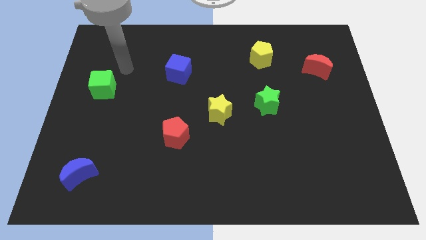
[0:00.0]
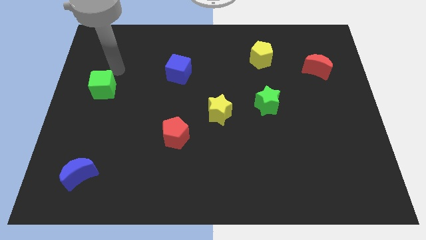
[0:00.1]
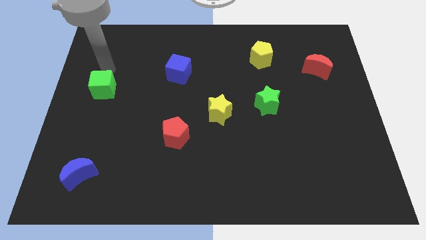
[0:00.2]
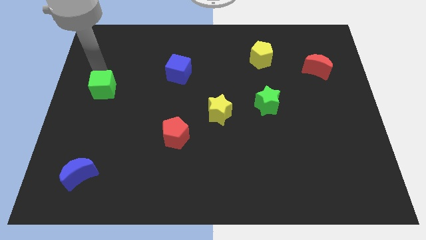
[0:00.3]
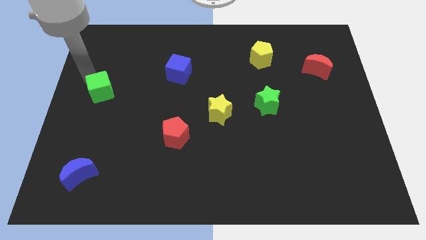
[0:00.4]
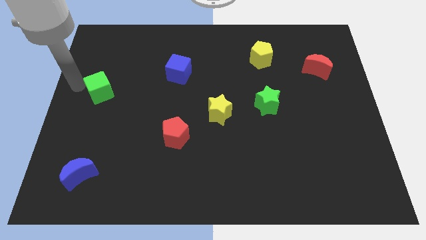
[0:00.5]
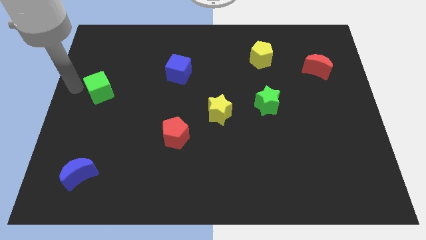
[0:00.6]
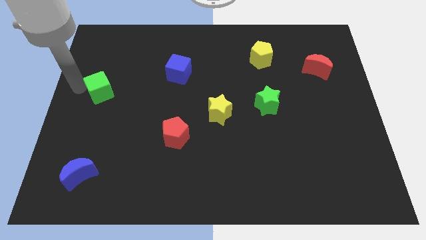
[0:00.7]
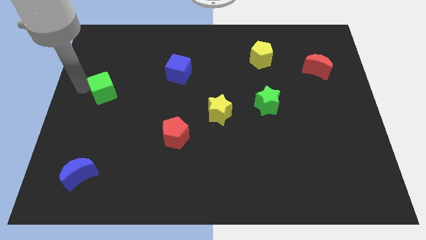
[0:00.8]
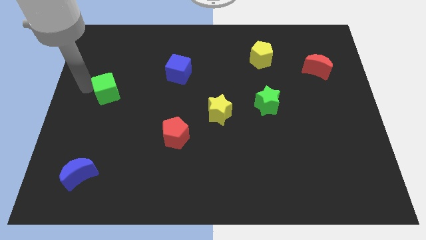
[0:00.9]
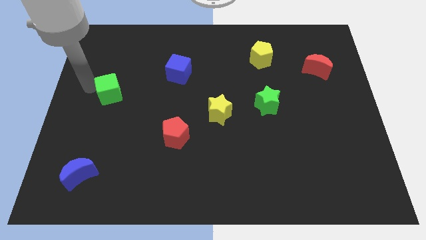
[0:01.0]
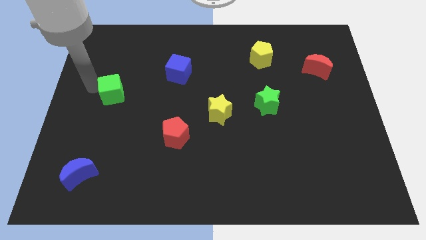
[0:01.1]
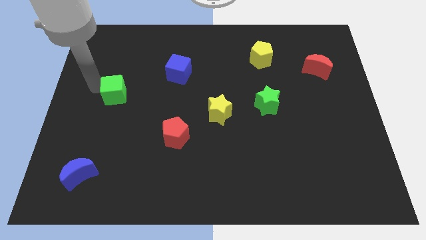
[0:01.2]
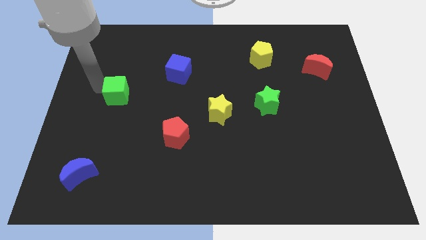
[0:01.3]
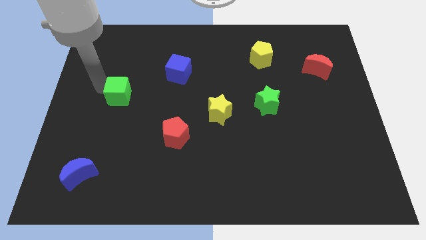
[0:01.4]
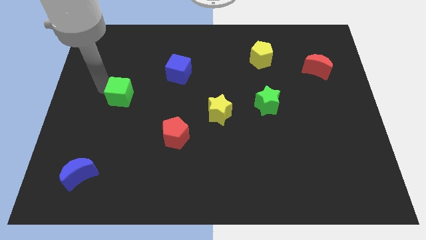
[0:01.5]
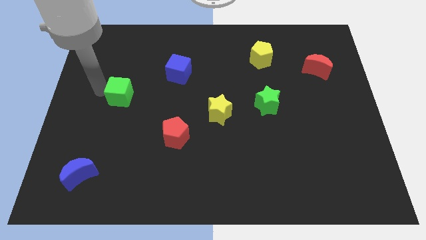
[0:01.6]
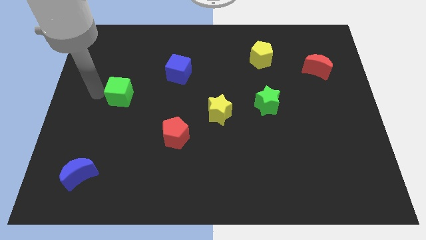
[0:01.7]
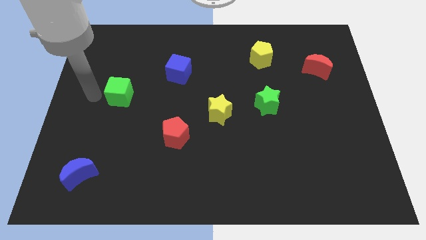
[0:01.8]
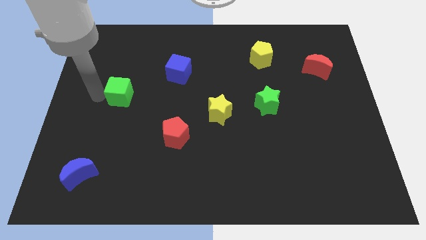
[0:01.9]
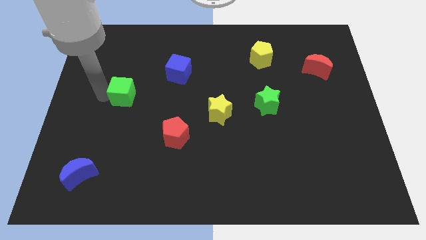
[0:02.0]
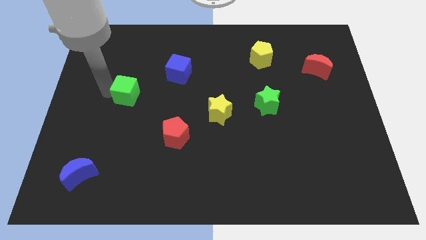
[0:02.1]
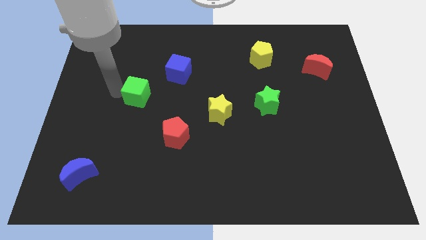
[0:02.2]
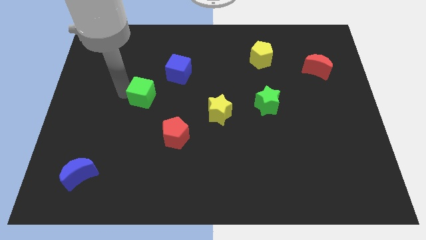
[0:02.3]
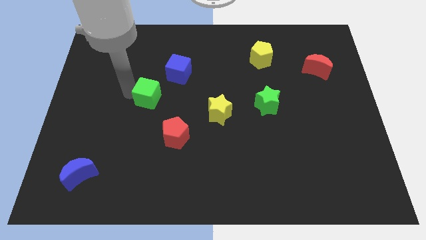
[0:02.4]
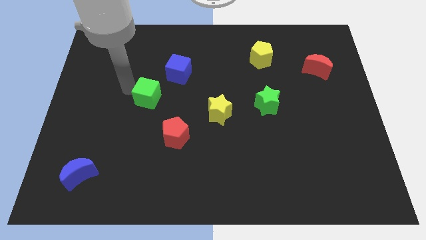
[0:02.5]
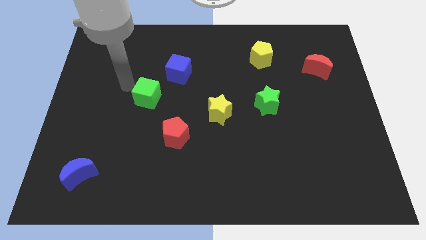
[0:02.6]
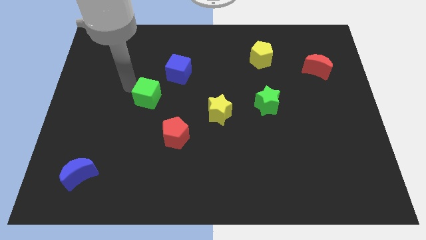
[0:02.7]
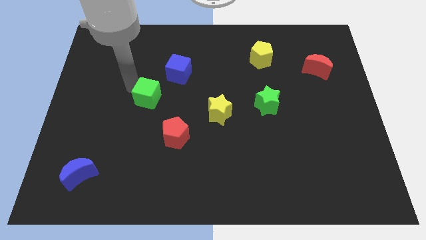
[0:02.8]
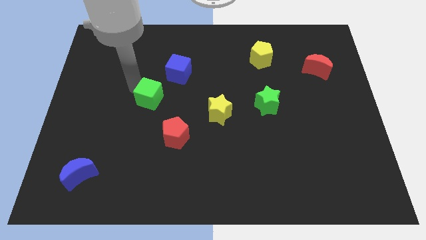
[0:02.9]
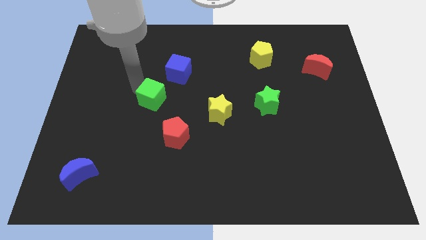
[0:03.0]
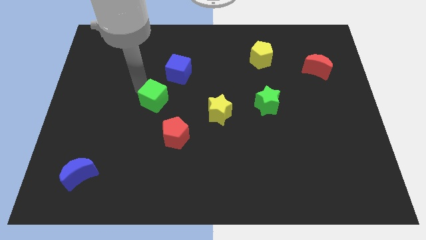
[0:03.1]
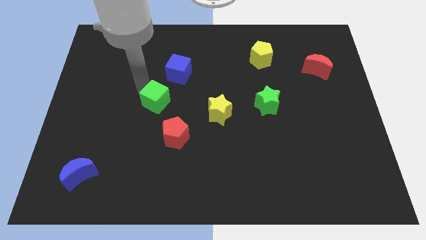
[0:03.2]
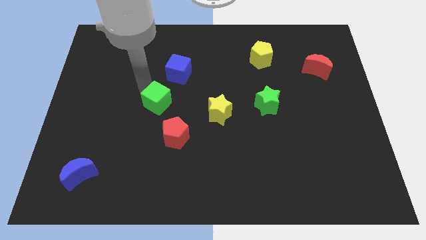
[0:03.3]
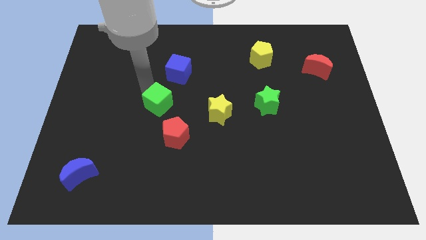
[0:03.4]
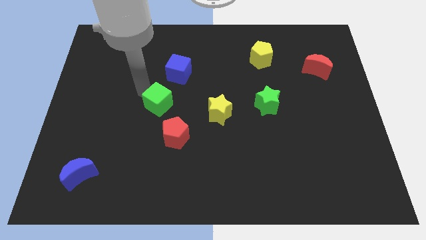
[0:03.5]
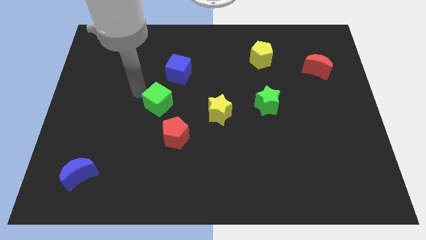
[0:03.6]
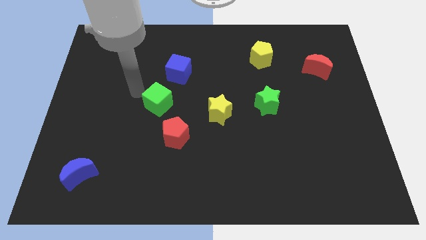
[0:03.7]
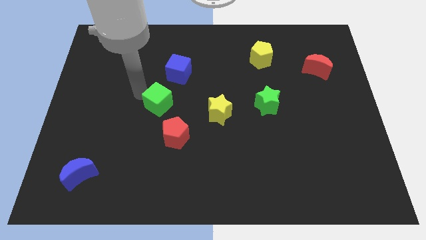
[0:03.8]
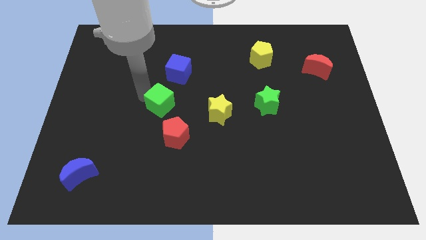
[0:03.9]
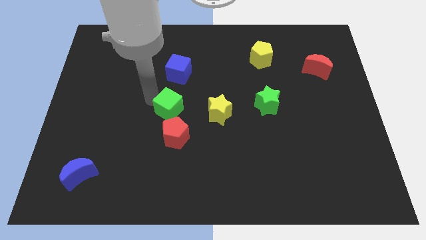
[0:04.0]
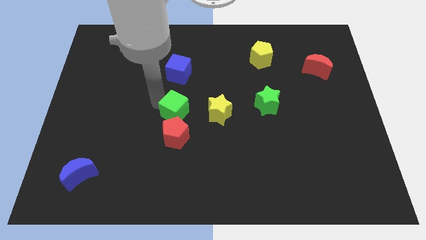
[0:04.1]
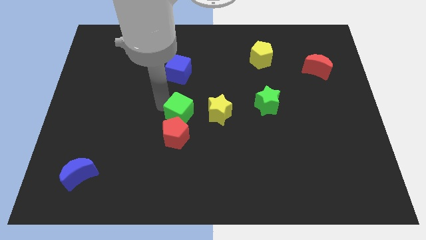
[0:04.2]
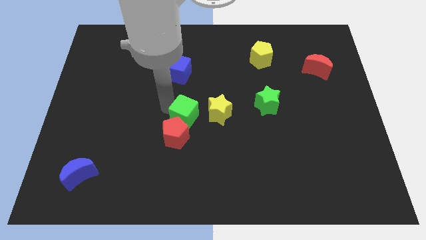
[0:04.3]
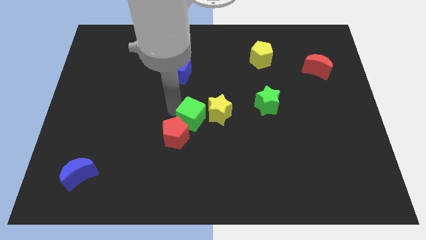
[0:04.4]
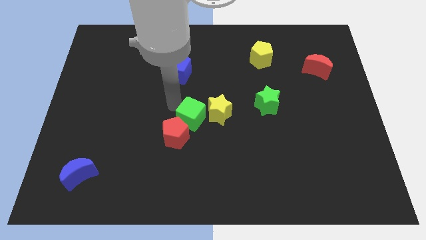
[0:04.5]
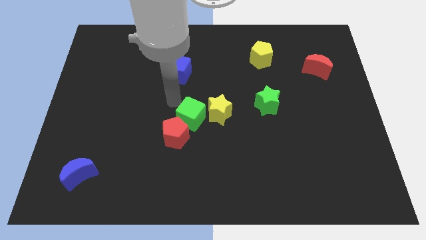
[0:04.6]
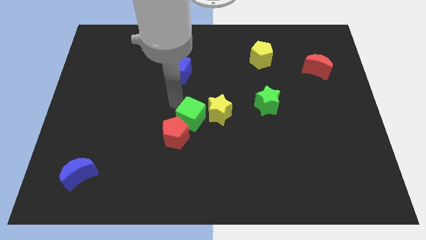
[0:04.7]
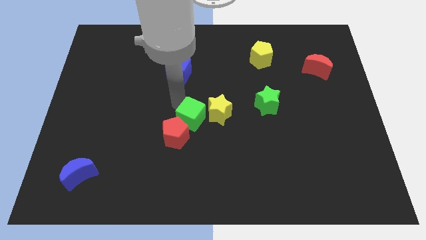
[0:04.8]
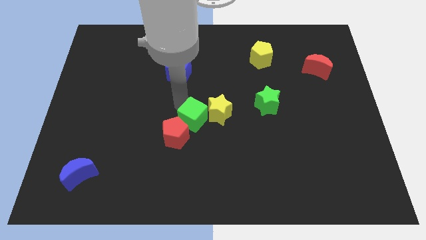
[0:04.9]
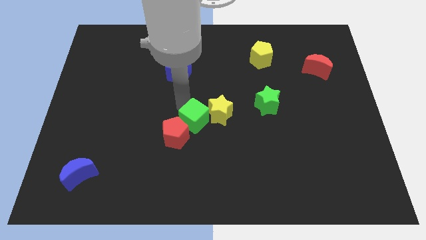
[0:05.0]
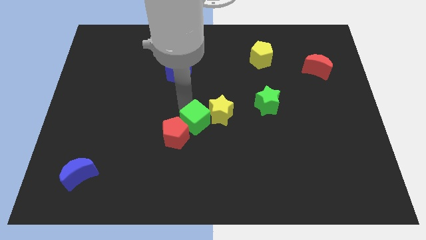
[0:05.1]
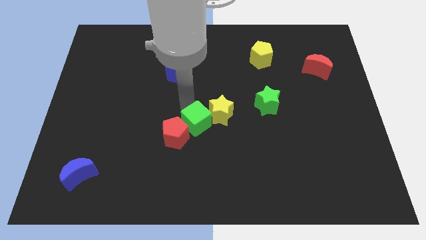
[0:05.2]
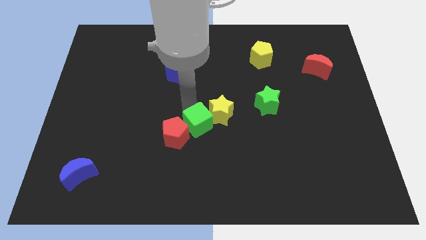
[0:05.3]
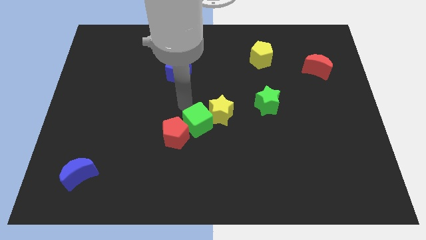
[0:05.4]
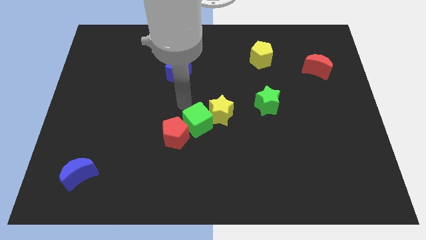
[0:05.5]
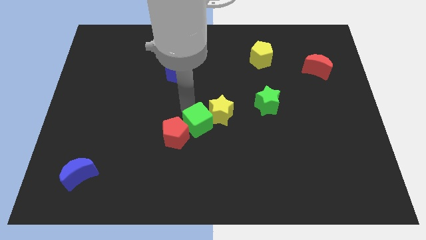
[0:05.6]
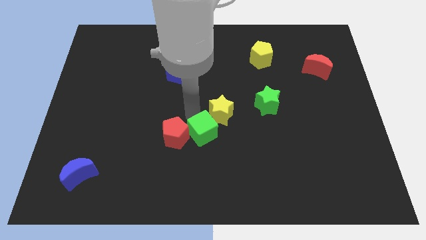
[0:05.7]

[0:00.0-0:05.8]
put the green cube to the bottom side of the yellow star

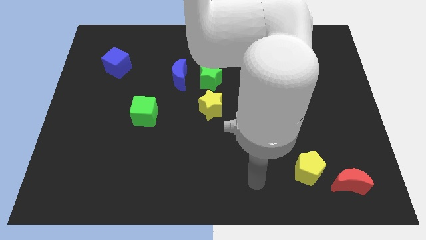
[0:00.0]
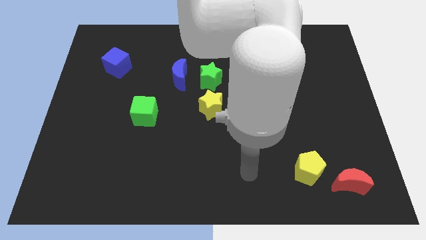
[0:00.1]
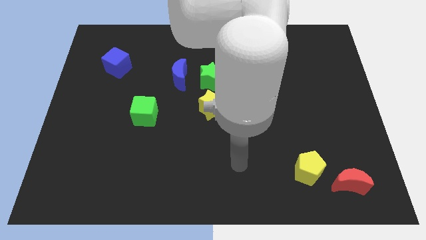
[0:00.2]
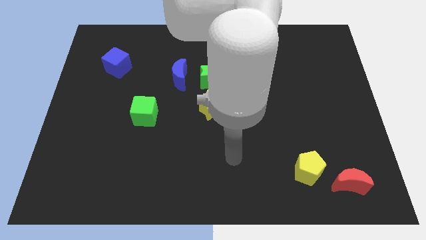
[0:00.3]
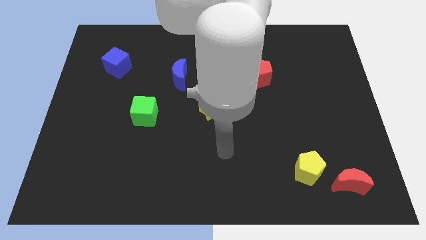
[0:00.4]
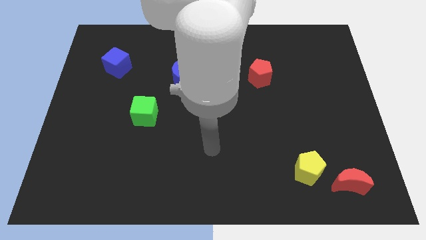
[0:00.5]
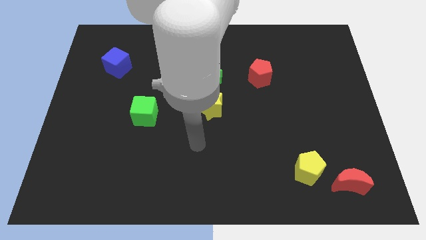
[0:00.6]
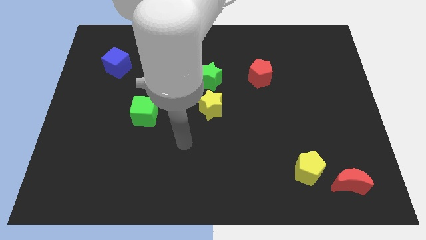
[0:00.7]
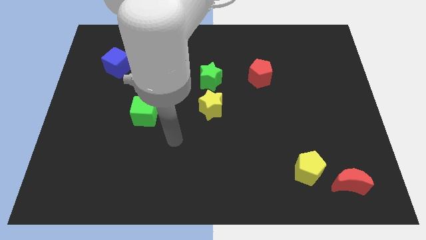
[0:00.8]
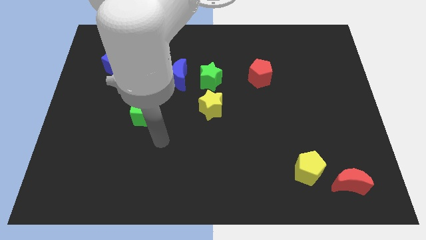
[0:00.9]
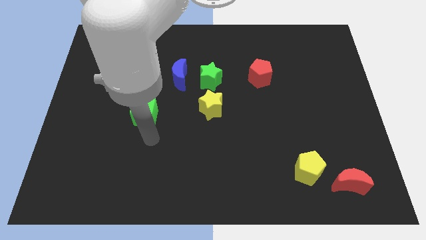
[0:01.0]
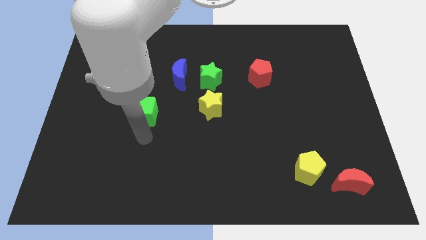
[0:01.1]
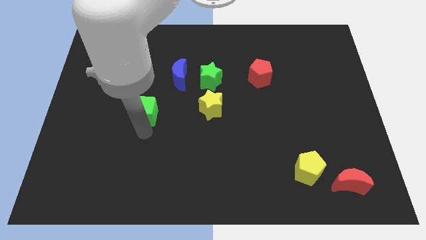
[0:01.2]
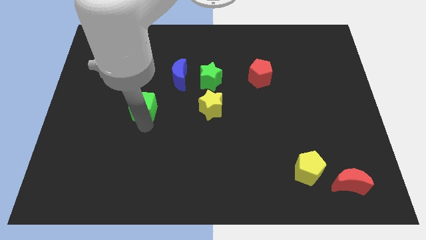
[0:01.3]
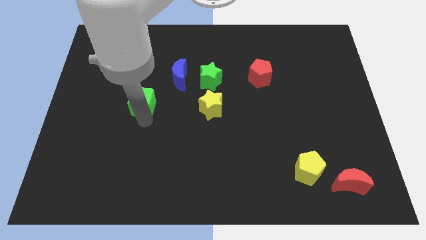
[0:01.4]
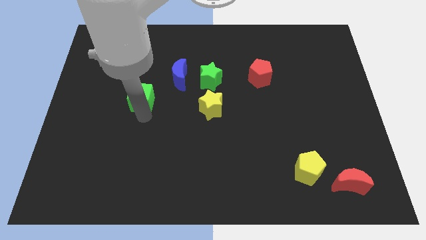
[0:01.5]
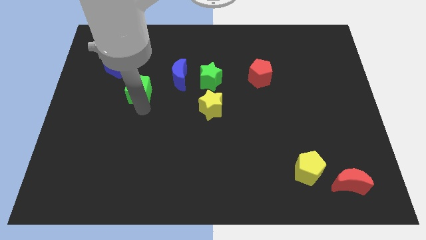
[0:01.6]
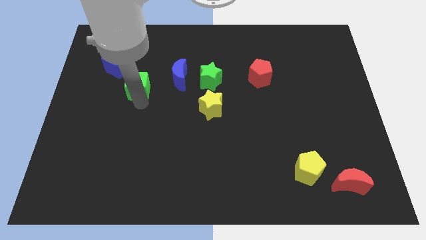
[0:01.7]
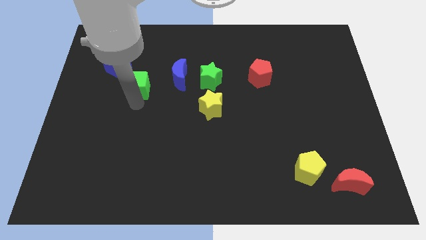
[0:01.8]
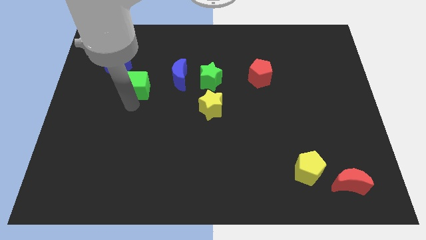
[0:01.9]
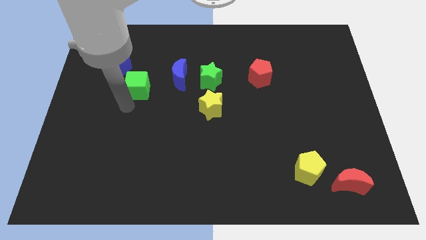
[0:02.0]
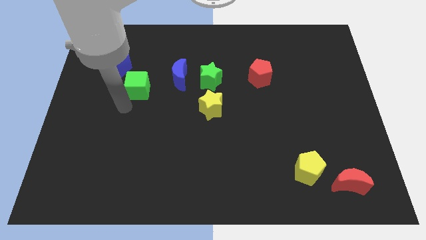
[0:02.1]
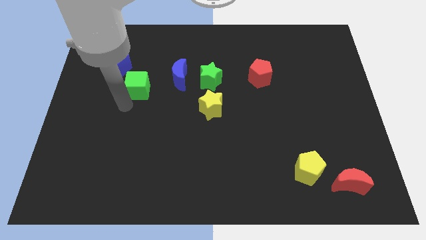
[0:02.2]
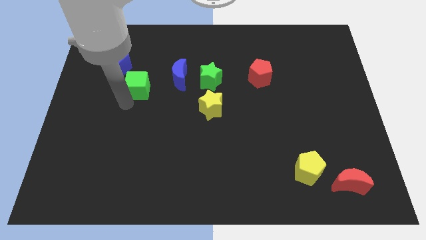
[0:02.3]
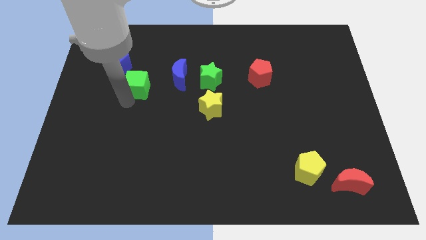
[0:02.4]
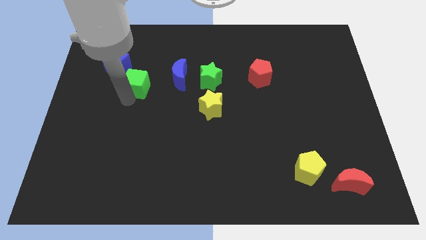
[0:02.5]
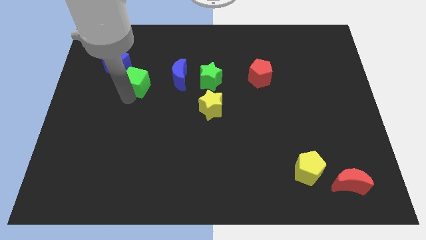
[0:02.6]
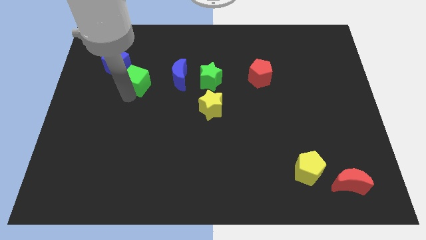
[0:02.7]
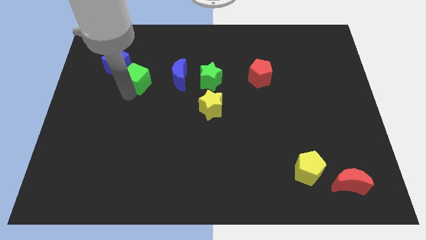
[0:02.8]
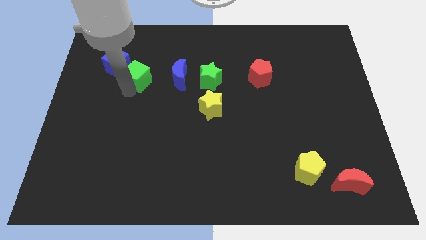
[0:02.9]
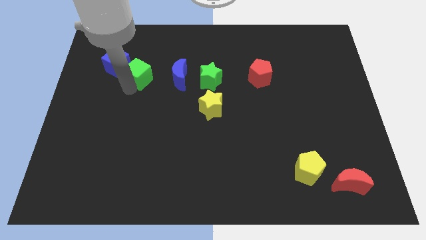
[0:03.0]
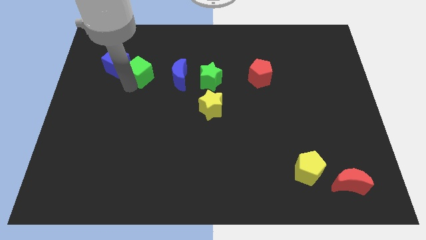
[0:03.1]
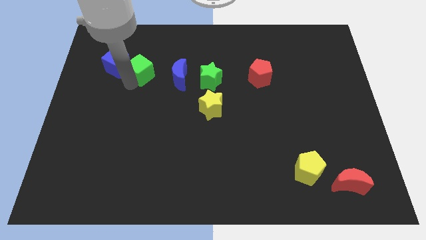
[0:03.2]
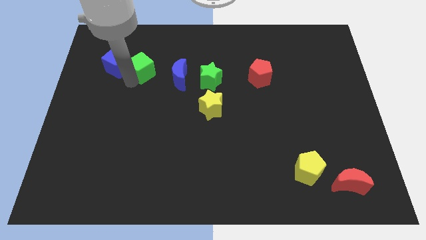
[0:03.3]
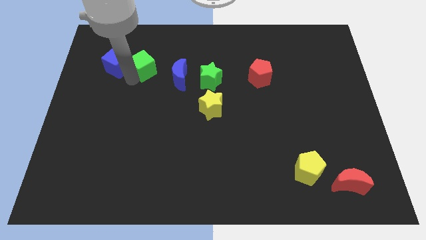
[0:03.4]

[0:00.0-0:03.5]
move the green cube to the top left side of the blue moon
